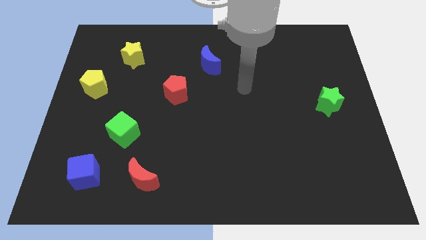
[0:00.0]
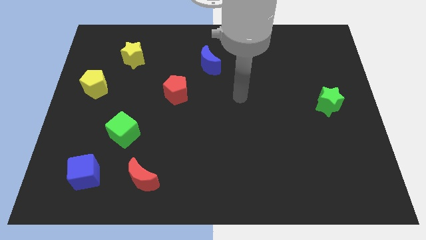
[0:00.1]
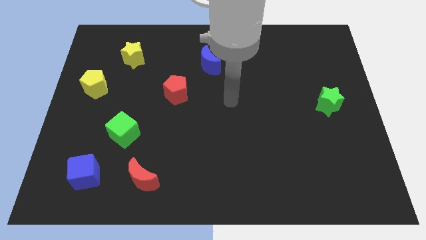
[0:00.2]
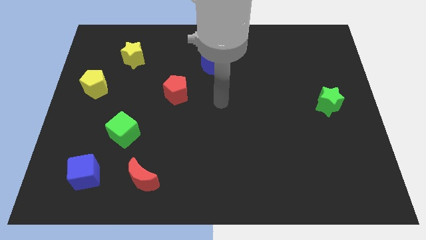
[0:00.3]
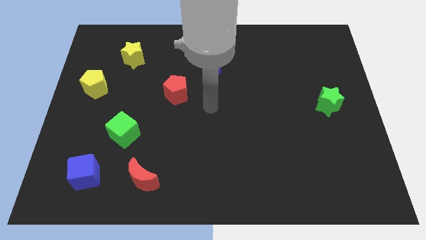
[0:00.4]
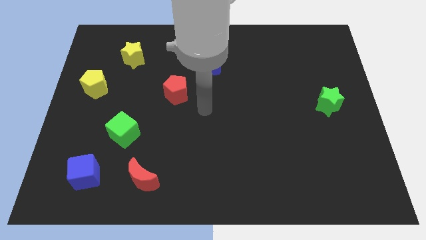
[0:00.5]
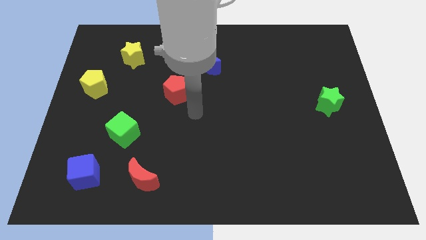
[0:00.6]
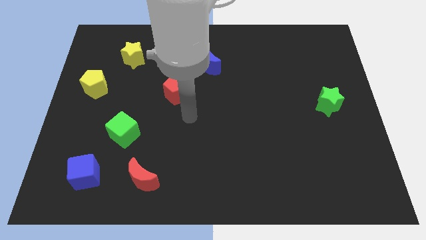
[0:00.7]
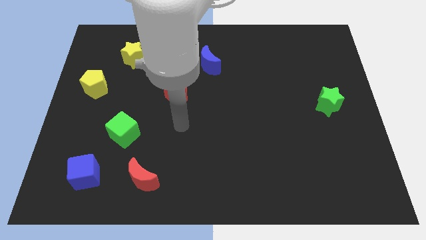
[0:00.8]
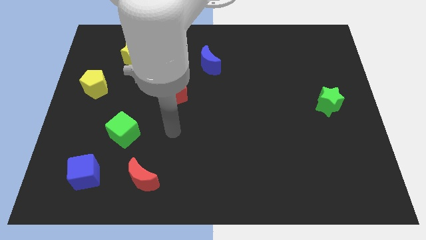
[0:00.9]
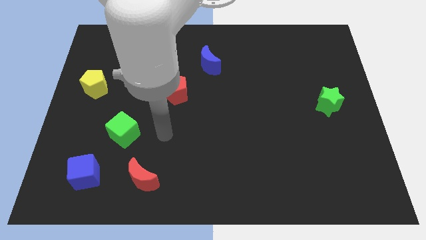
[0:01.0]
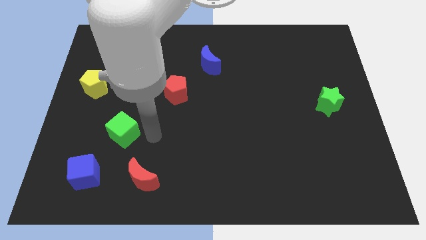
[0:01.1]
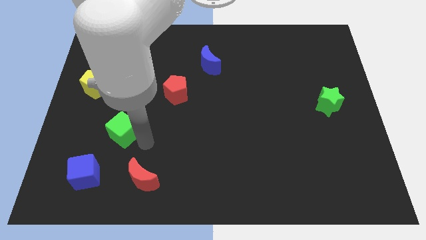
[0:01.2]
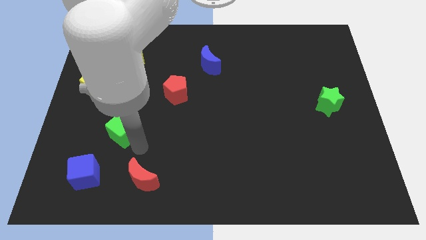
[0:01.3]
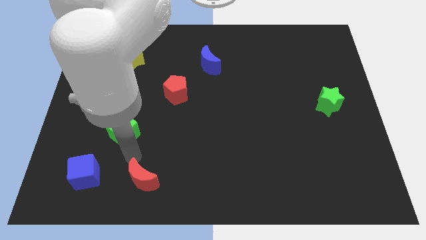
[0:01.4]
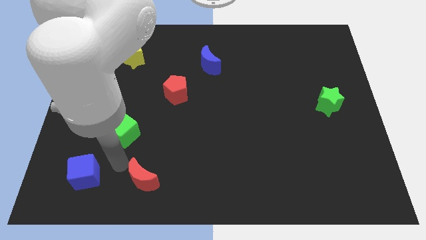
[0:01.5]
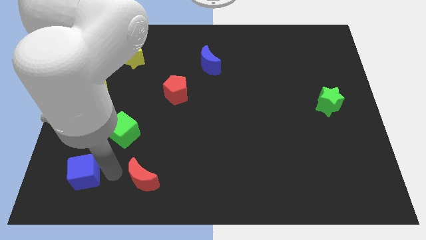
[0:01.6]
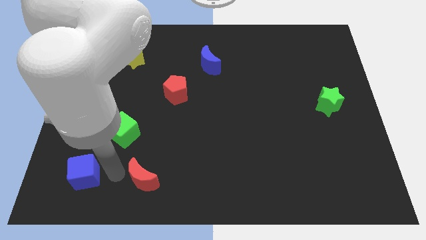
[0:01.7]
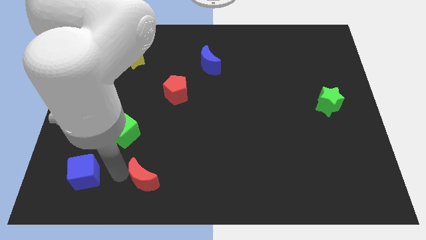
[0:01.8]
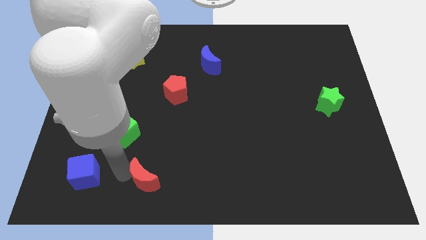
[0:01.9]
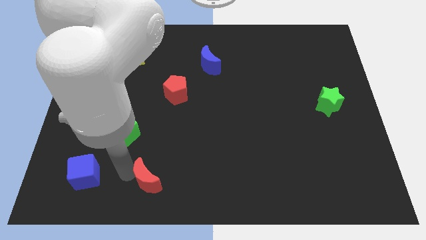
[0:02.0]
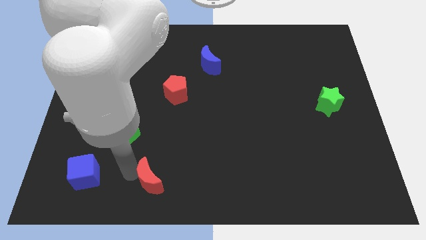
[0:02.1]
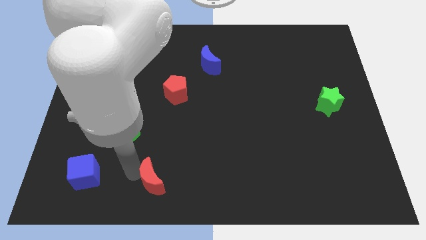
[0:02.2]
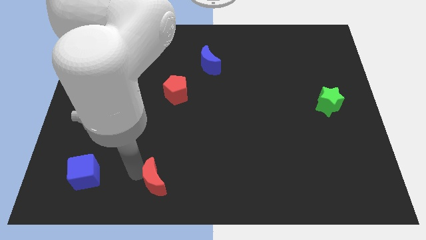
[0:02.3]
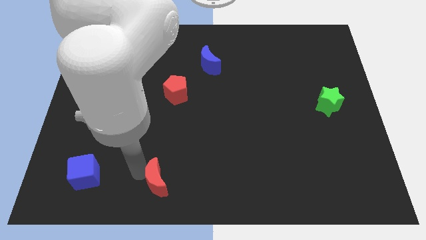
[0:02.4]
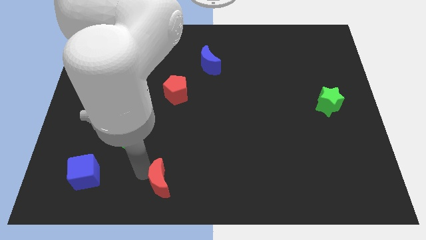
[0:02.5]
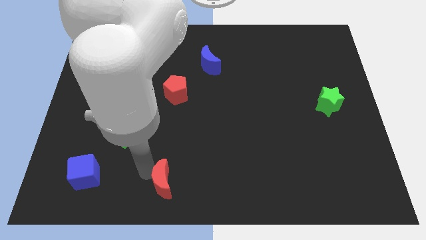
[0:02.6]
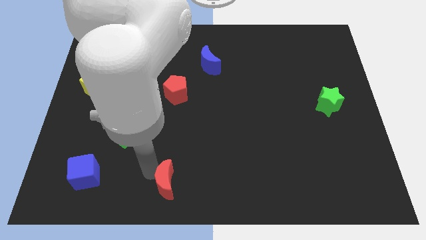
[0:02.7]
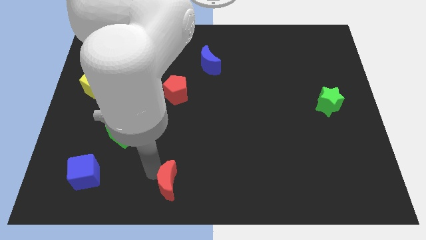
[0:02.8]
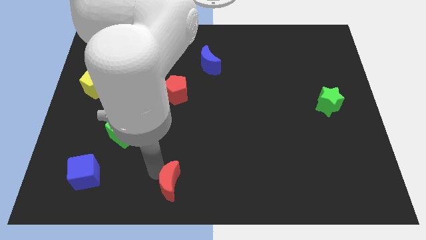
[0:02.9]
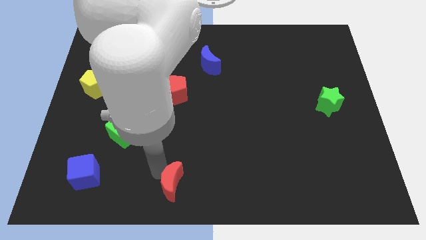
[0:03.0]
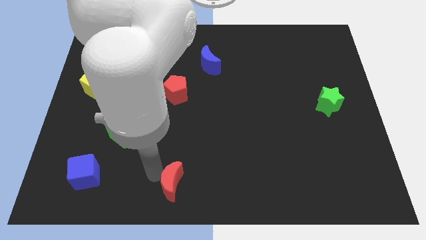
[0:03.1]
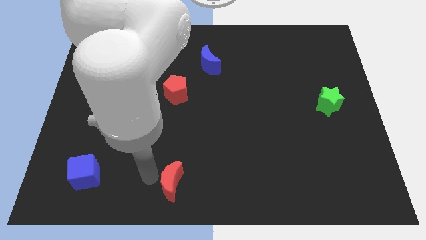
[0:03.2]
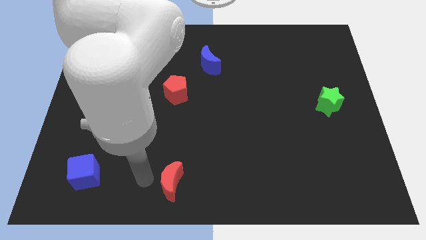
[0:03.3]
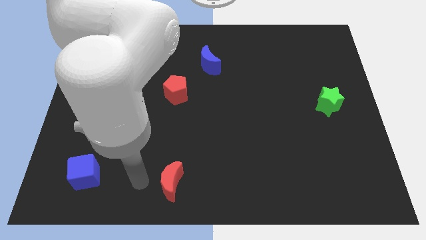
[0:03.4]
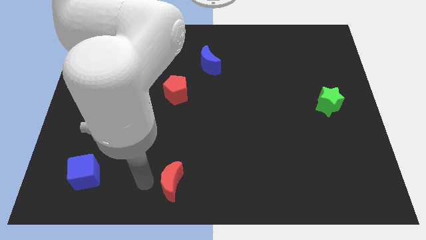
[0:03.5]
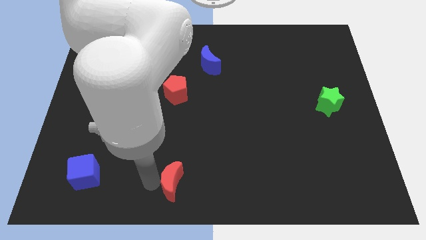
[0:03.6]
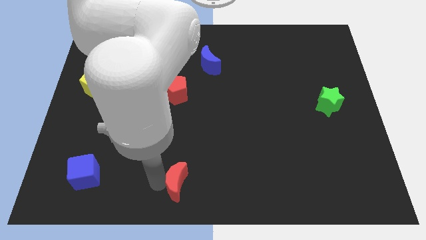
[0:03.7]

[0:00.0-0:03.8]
slightly push the red moon to the right

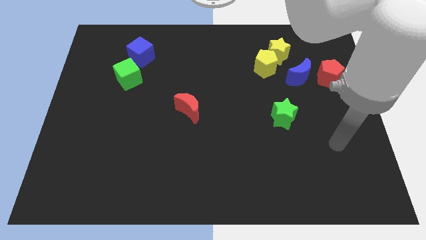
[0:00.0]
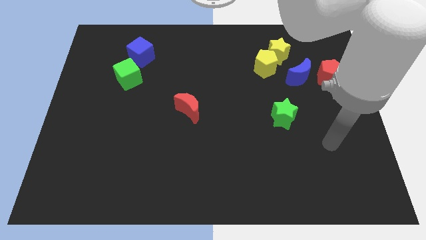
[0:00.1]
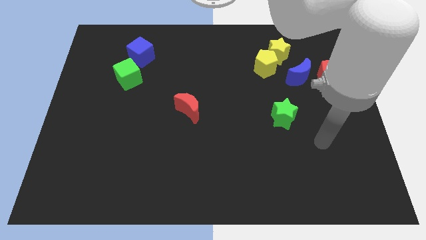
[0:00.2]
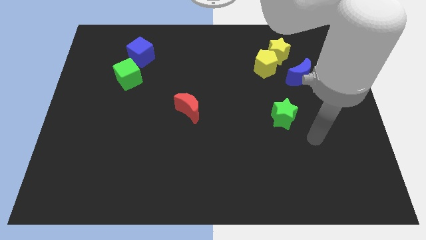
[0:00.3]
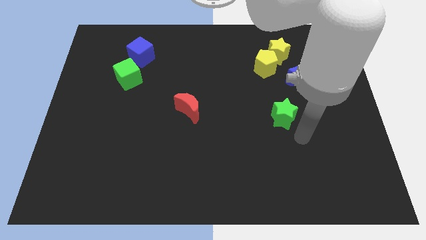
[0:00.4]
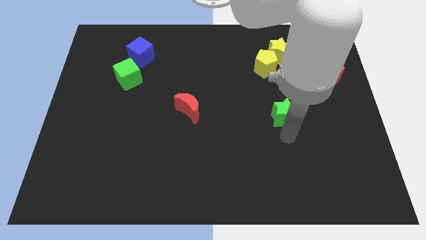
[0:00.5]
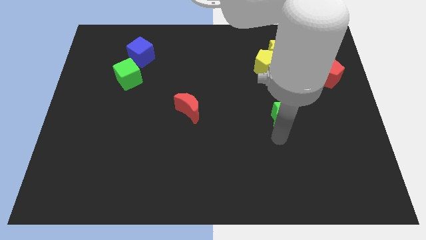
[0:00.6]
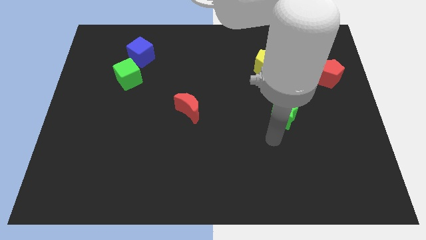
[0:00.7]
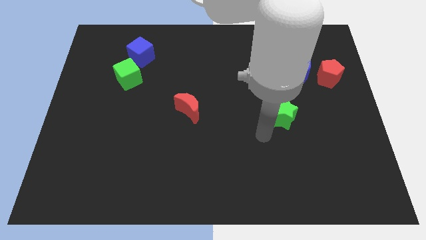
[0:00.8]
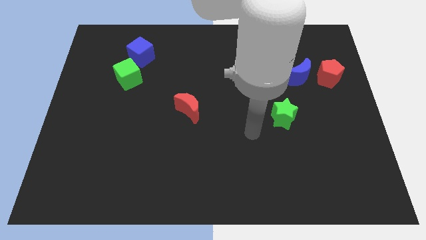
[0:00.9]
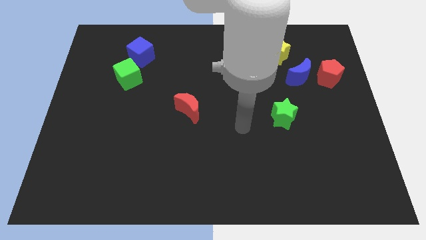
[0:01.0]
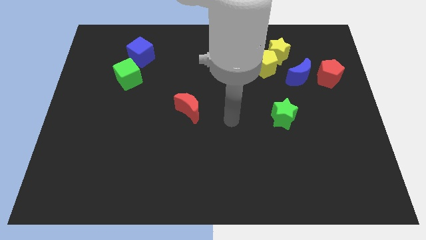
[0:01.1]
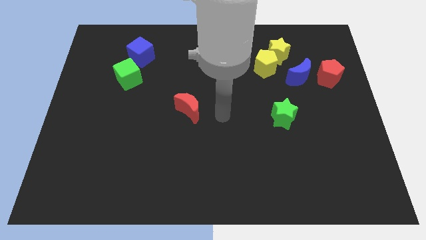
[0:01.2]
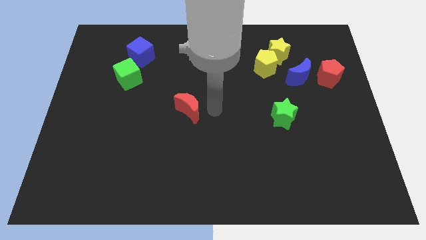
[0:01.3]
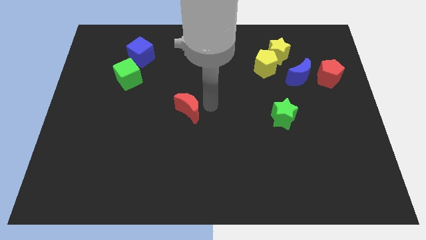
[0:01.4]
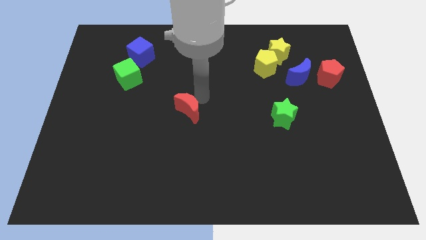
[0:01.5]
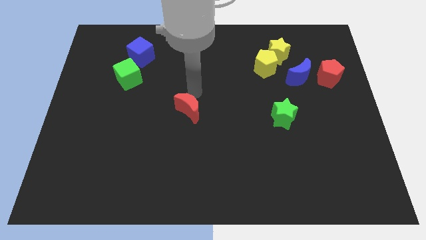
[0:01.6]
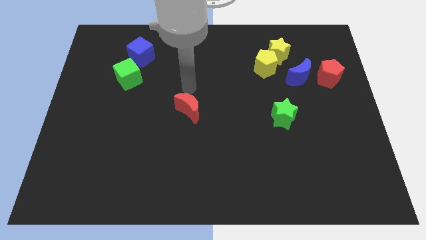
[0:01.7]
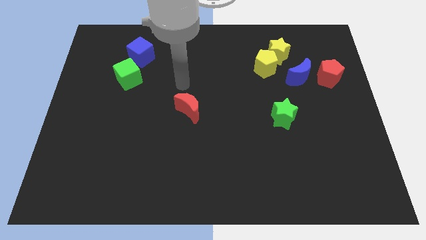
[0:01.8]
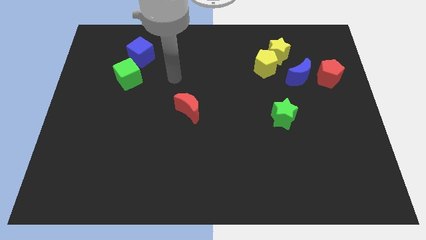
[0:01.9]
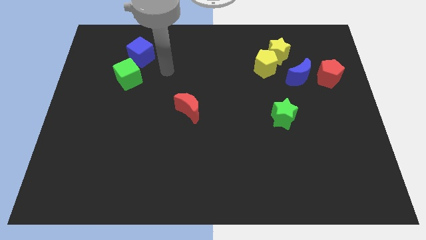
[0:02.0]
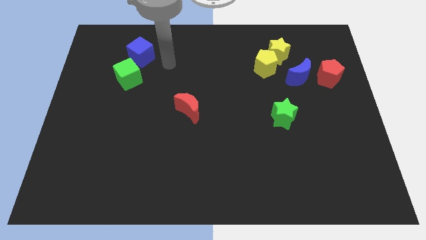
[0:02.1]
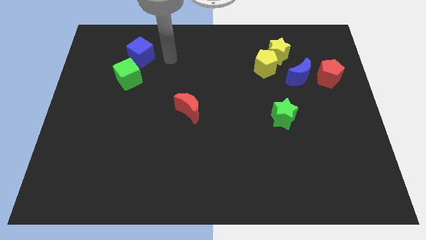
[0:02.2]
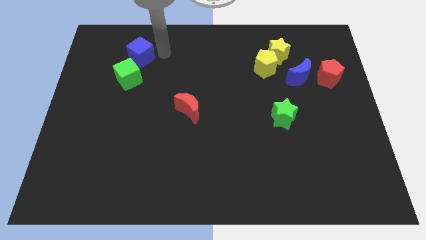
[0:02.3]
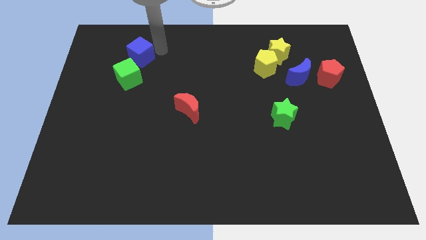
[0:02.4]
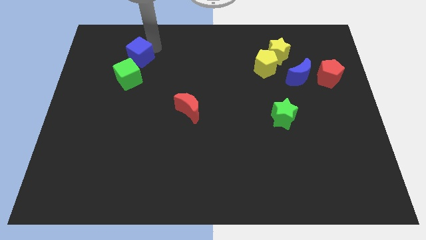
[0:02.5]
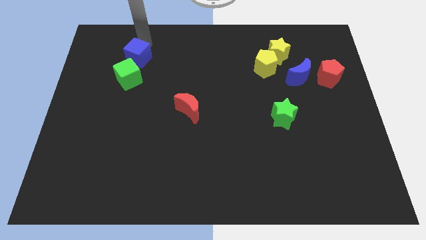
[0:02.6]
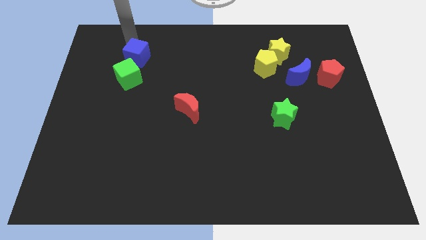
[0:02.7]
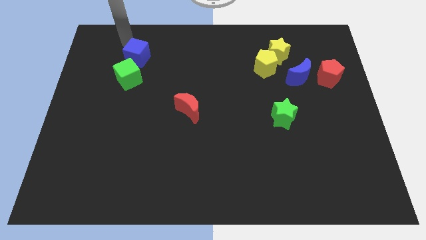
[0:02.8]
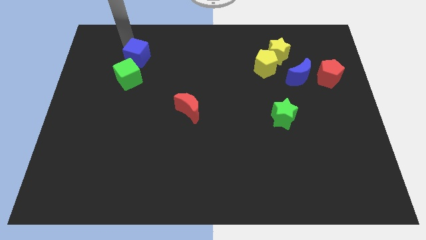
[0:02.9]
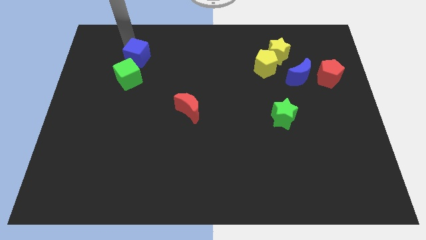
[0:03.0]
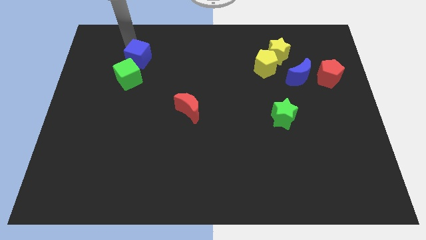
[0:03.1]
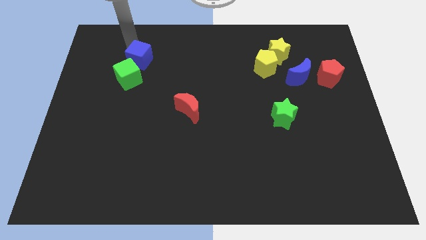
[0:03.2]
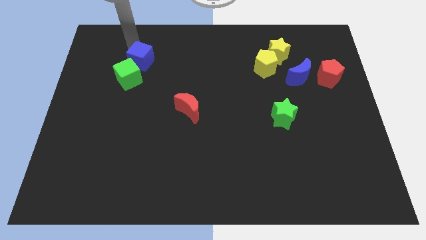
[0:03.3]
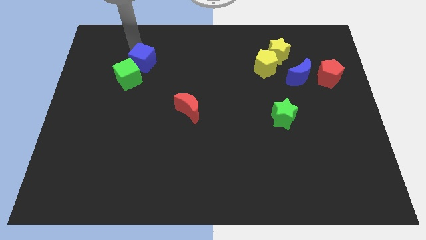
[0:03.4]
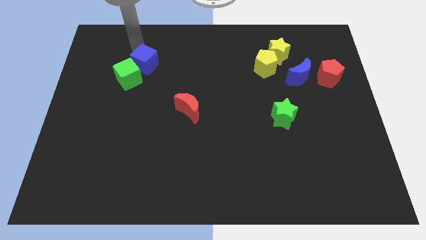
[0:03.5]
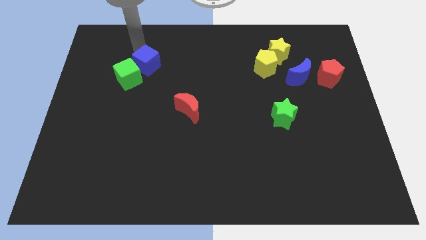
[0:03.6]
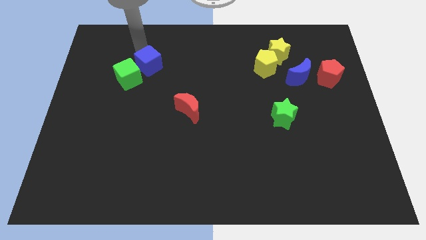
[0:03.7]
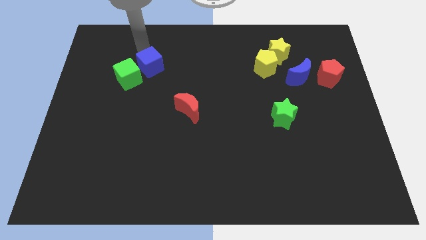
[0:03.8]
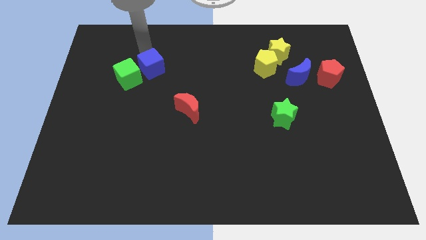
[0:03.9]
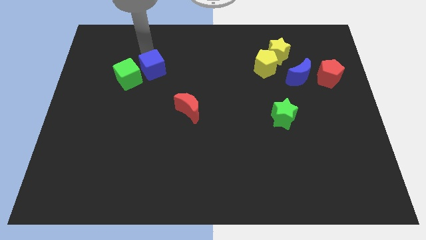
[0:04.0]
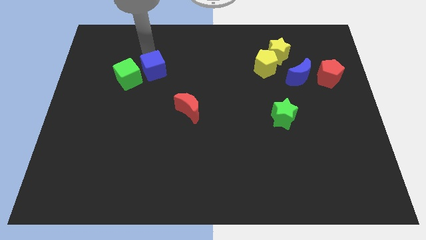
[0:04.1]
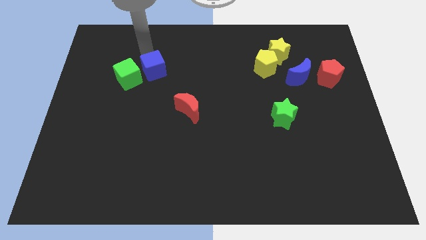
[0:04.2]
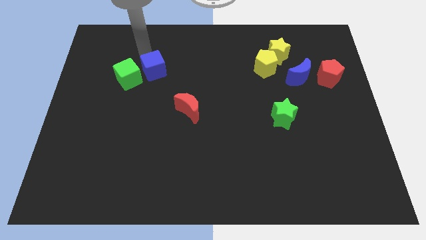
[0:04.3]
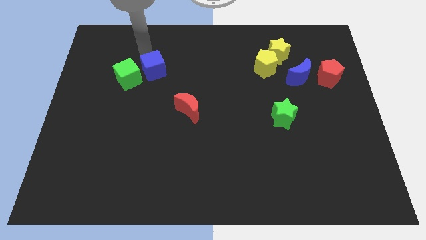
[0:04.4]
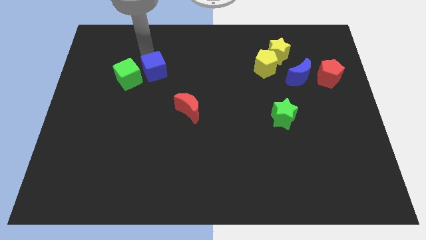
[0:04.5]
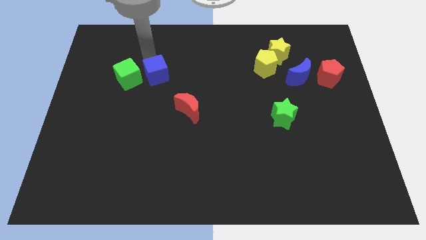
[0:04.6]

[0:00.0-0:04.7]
slightly move the blue cube diagonally downwards and to the right
